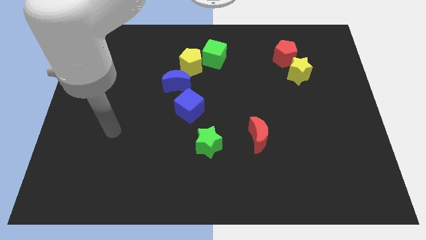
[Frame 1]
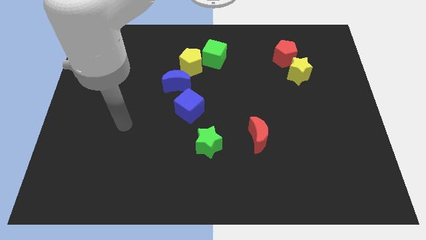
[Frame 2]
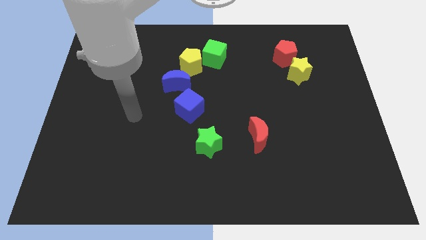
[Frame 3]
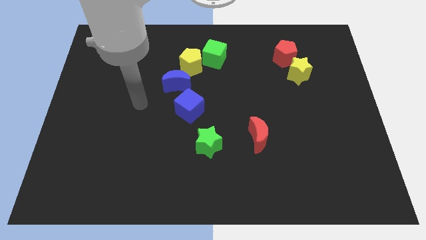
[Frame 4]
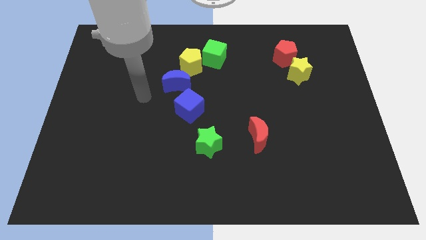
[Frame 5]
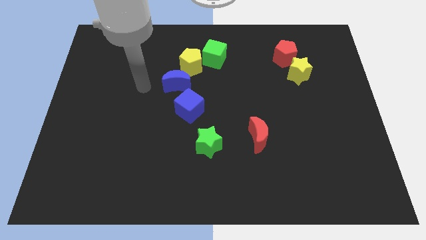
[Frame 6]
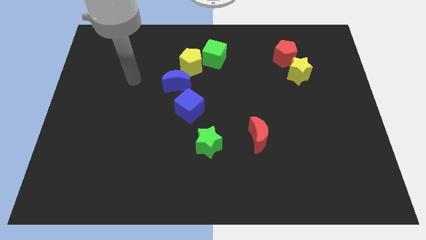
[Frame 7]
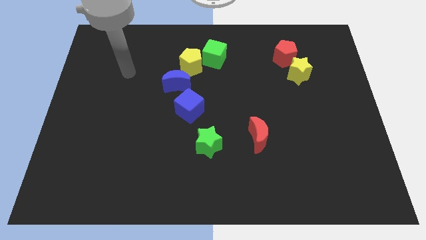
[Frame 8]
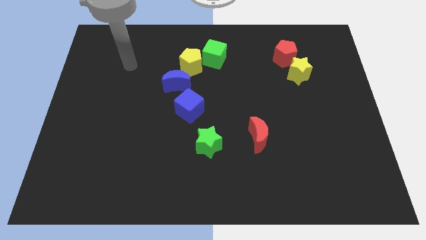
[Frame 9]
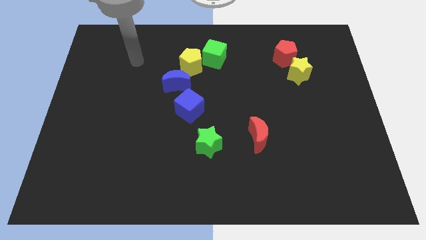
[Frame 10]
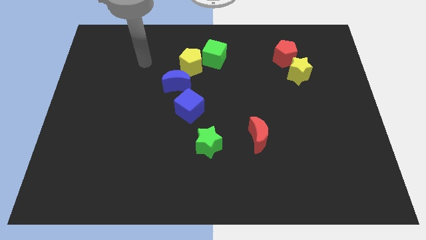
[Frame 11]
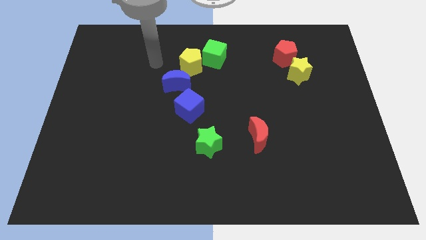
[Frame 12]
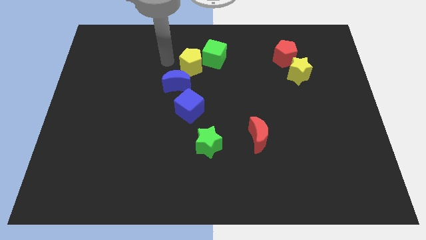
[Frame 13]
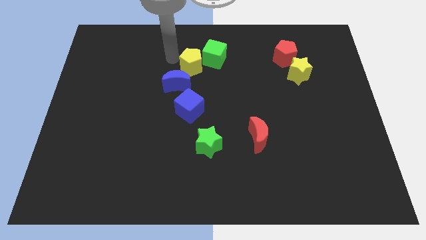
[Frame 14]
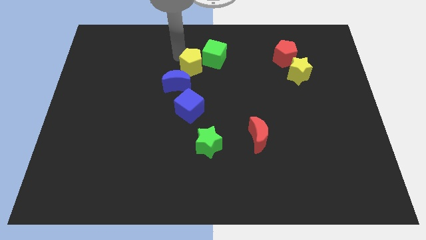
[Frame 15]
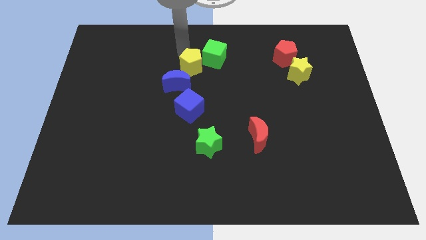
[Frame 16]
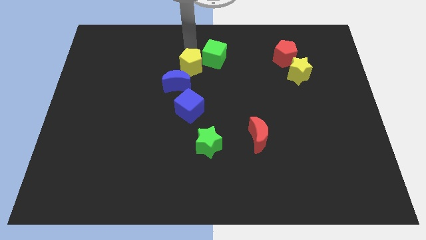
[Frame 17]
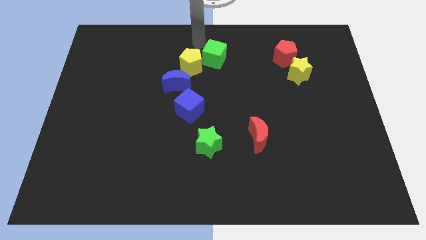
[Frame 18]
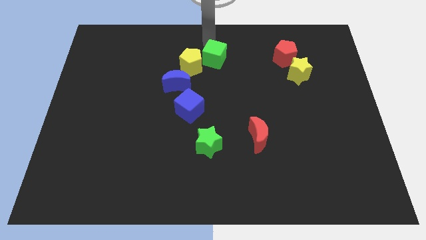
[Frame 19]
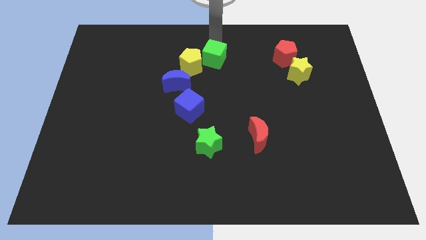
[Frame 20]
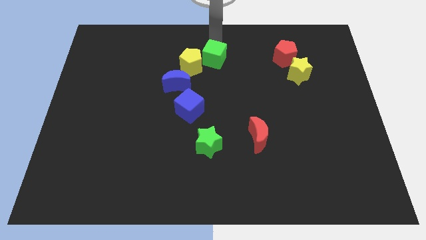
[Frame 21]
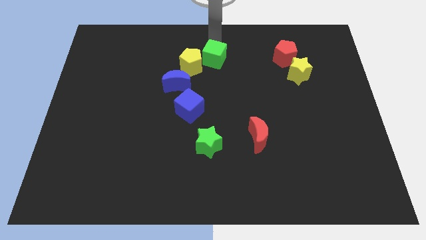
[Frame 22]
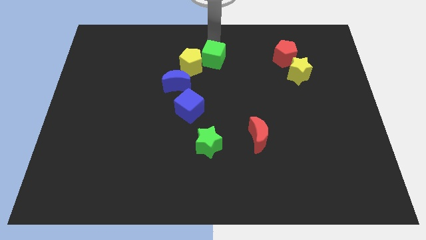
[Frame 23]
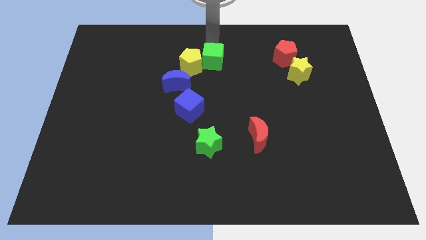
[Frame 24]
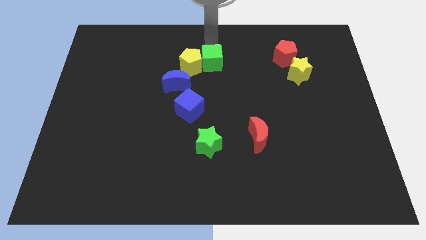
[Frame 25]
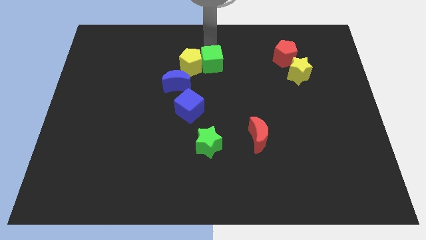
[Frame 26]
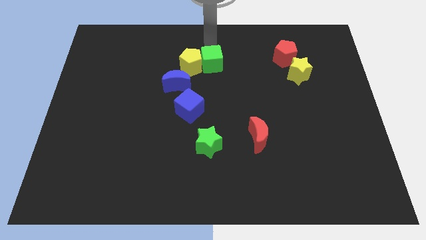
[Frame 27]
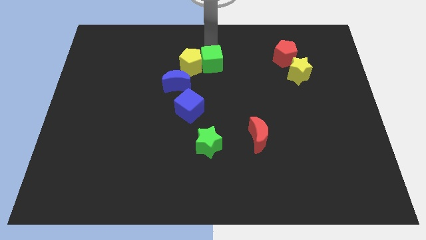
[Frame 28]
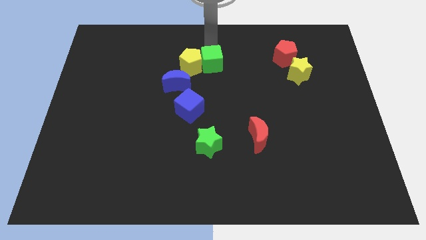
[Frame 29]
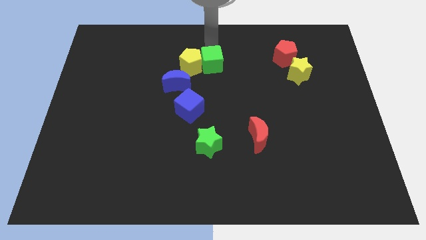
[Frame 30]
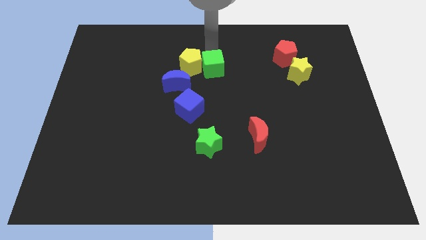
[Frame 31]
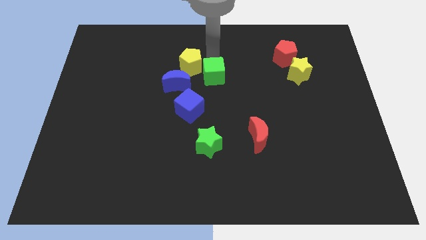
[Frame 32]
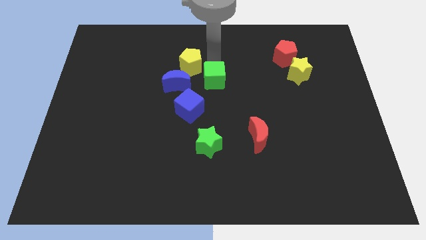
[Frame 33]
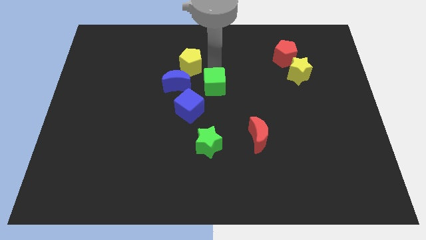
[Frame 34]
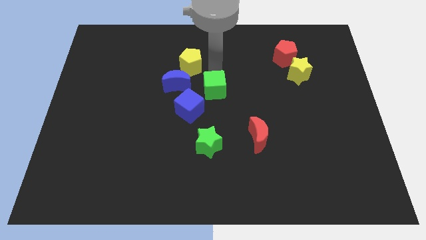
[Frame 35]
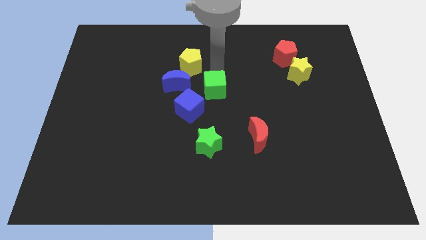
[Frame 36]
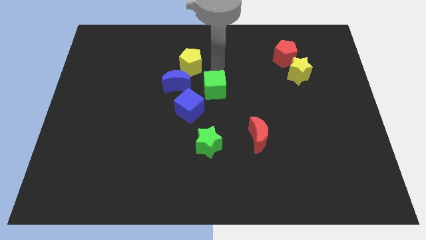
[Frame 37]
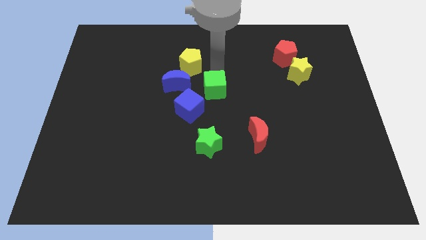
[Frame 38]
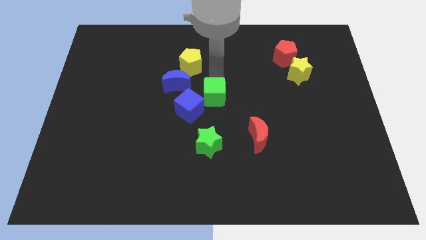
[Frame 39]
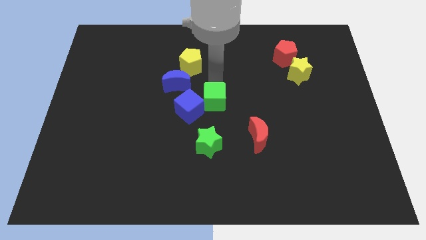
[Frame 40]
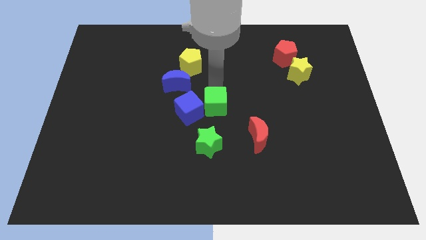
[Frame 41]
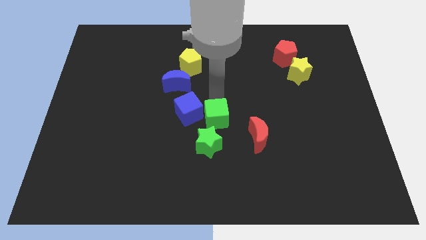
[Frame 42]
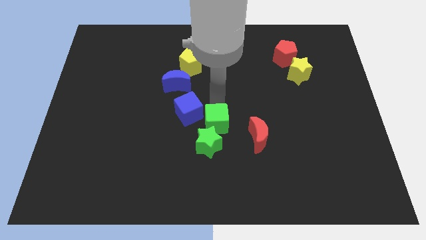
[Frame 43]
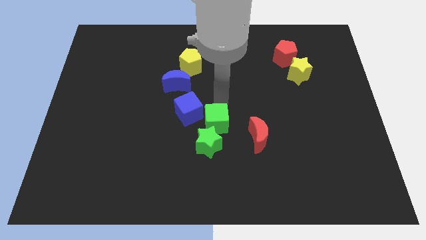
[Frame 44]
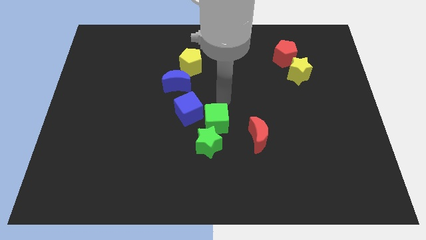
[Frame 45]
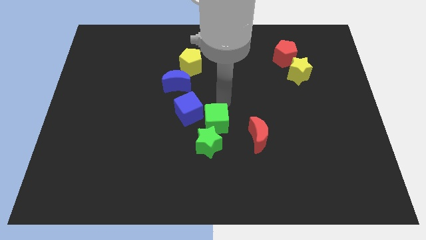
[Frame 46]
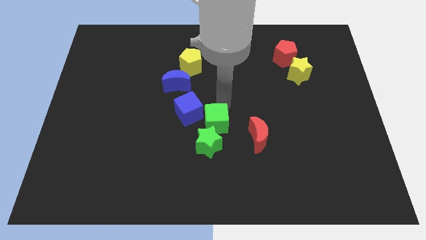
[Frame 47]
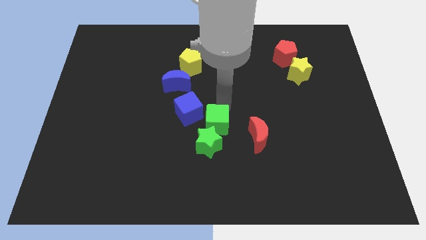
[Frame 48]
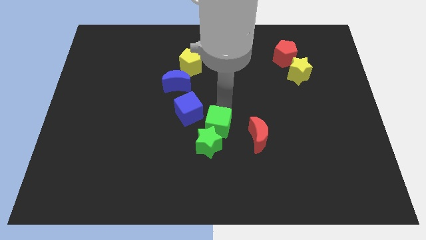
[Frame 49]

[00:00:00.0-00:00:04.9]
move the green cube to the green star

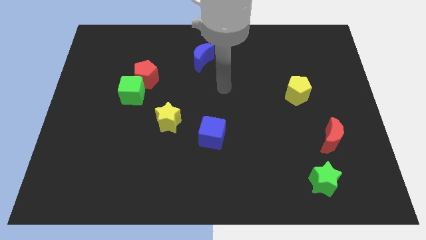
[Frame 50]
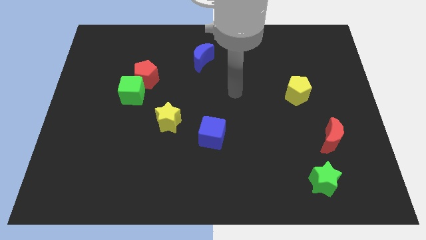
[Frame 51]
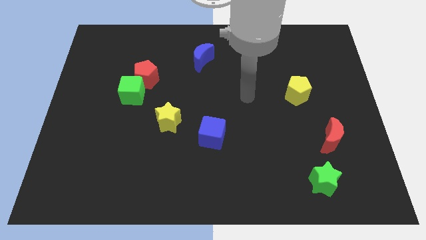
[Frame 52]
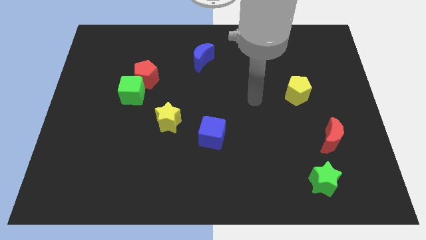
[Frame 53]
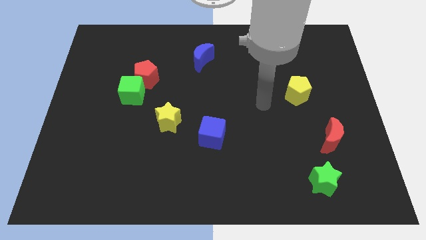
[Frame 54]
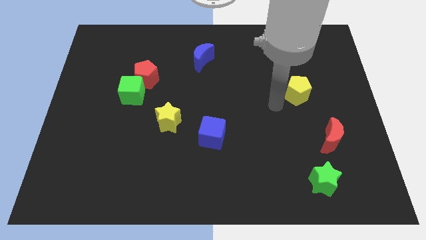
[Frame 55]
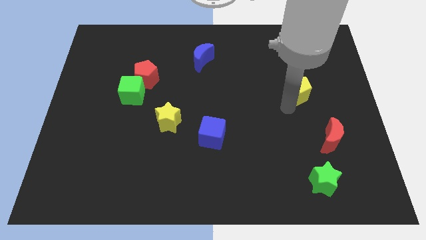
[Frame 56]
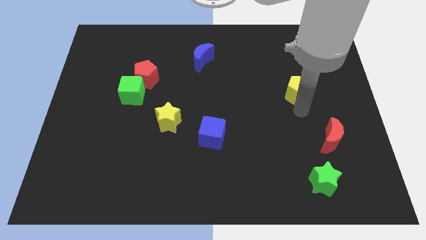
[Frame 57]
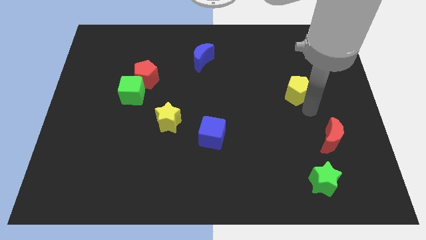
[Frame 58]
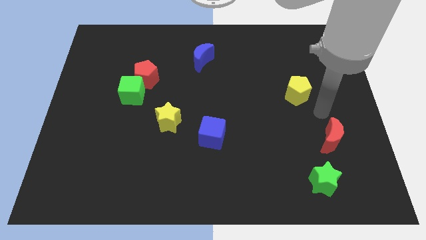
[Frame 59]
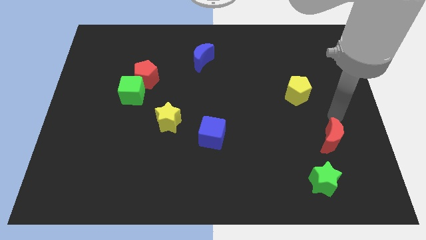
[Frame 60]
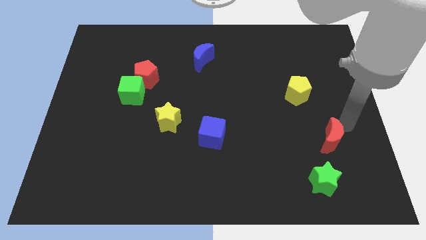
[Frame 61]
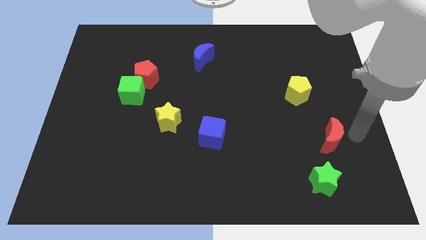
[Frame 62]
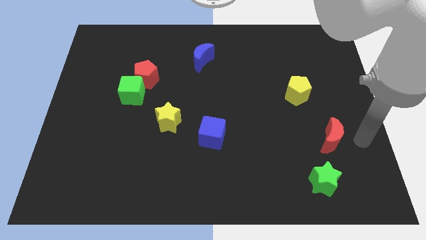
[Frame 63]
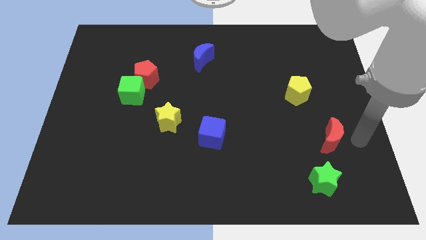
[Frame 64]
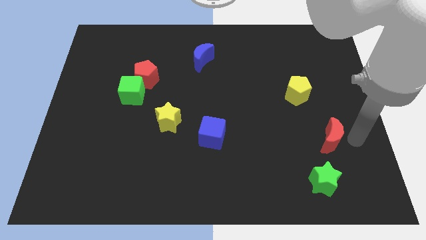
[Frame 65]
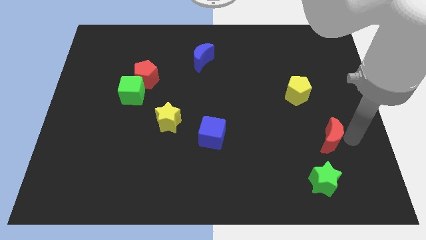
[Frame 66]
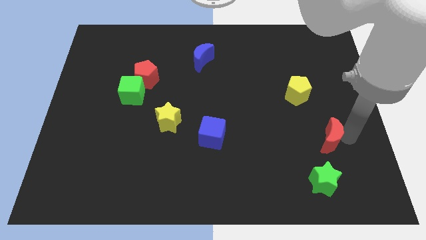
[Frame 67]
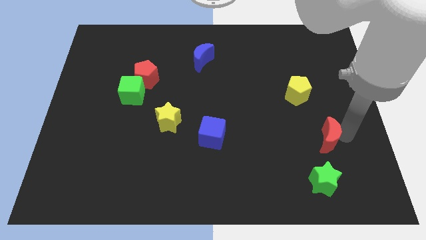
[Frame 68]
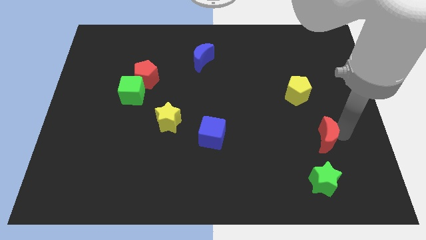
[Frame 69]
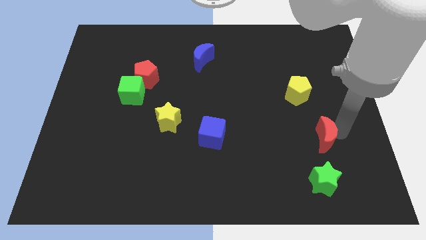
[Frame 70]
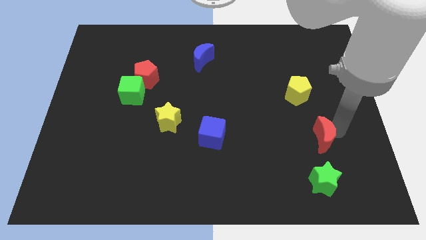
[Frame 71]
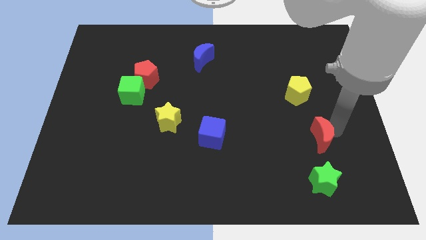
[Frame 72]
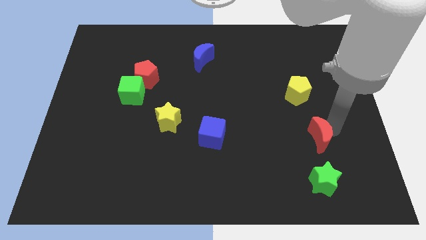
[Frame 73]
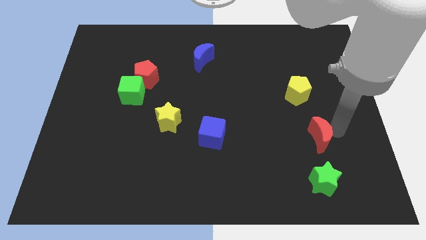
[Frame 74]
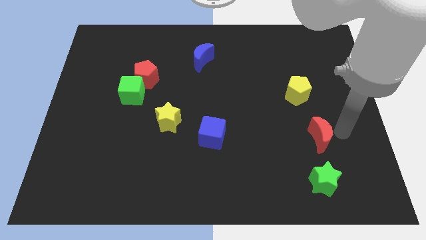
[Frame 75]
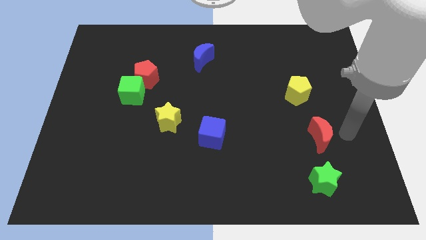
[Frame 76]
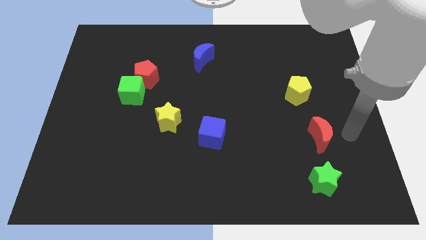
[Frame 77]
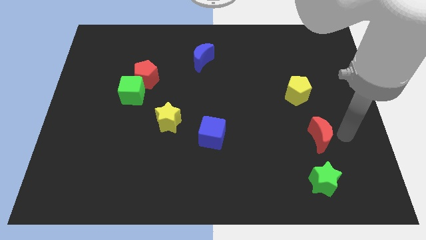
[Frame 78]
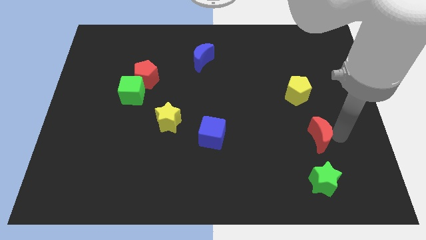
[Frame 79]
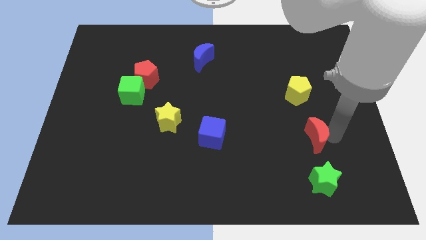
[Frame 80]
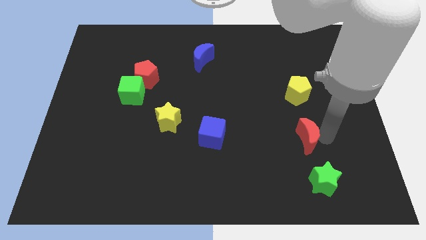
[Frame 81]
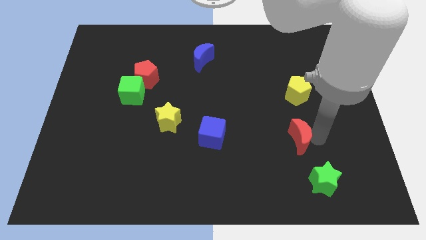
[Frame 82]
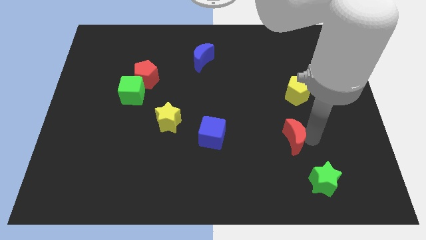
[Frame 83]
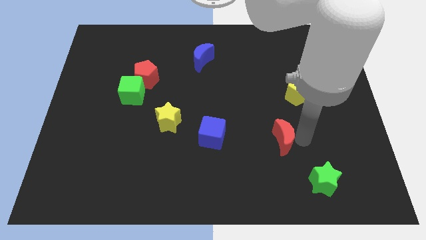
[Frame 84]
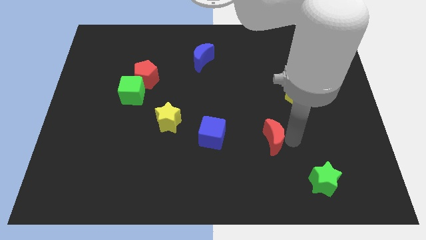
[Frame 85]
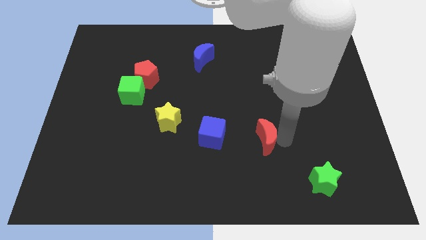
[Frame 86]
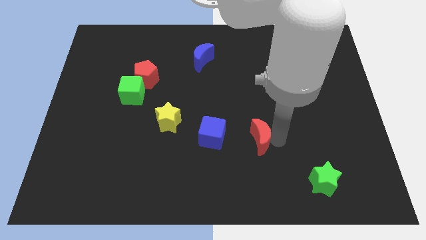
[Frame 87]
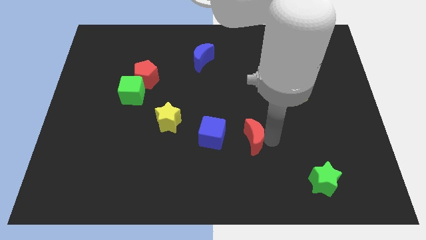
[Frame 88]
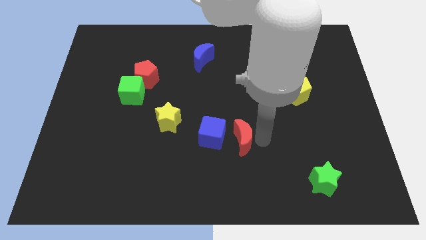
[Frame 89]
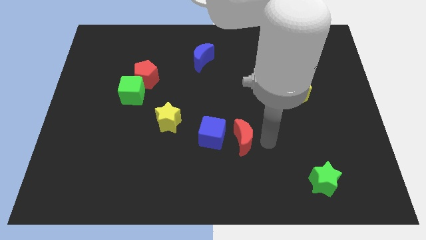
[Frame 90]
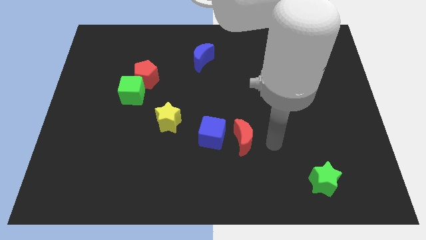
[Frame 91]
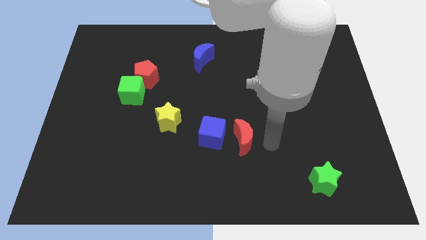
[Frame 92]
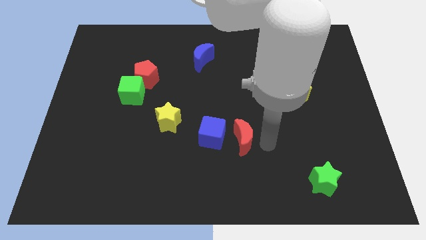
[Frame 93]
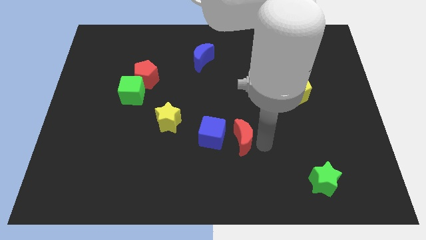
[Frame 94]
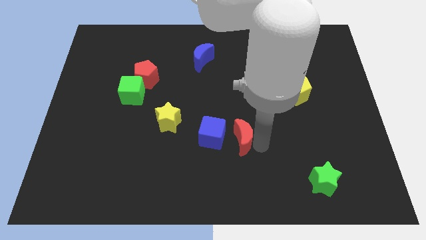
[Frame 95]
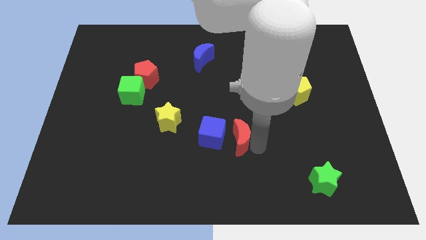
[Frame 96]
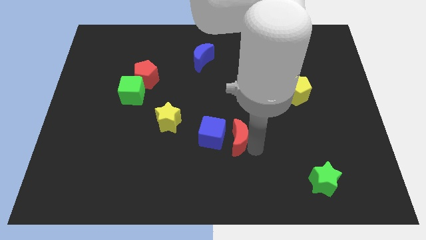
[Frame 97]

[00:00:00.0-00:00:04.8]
push the red moon close to the blue cube
